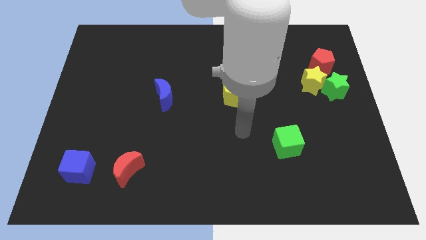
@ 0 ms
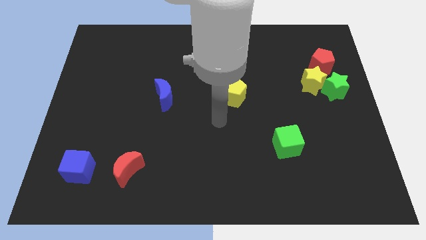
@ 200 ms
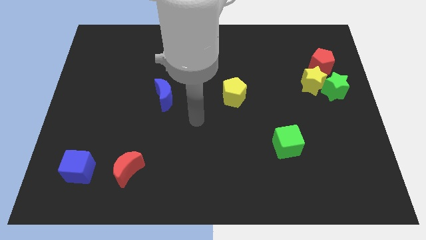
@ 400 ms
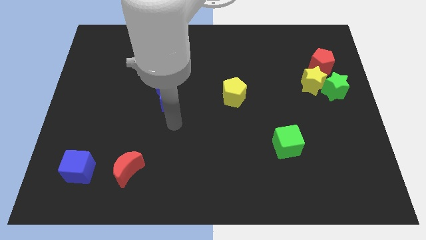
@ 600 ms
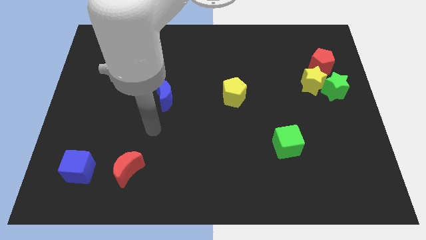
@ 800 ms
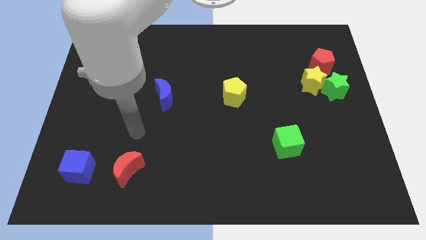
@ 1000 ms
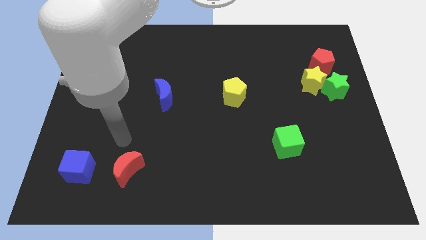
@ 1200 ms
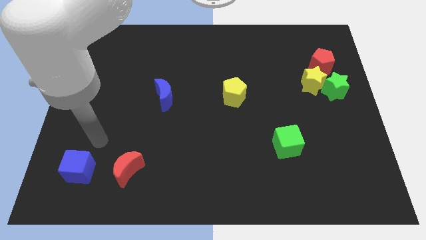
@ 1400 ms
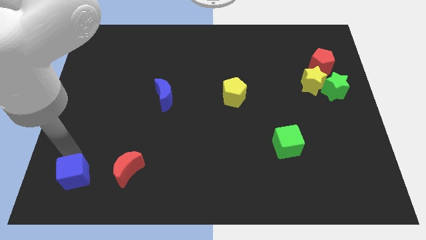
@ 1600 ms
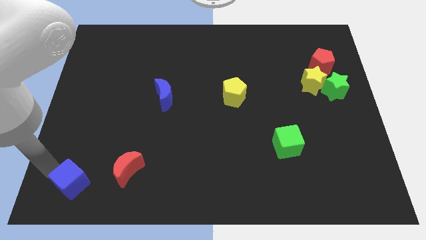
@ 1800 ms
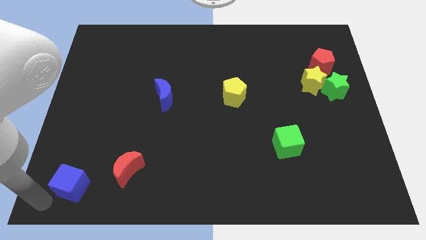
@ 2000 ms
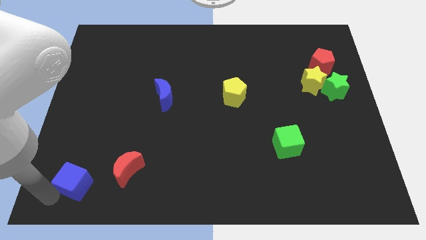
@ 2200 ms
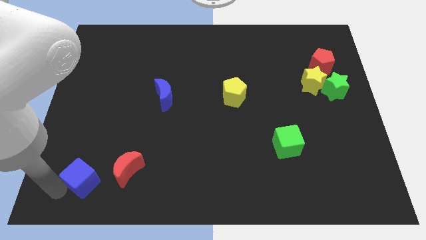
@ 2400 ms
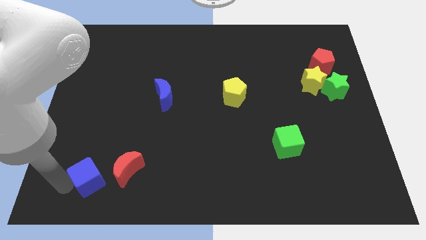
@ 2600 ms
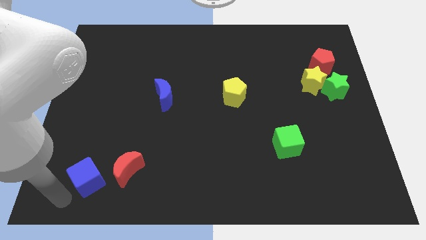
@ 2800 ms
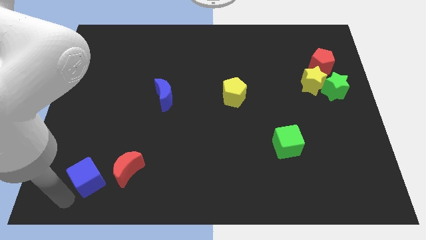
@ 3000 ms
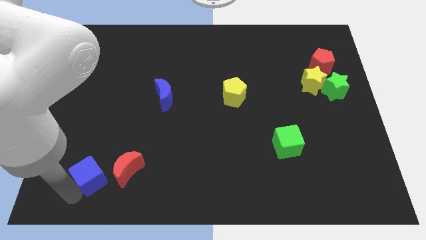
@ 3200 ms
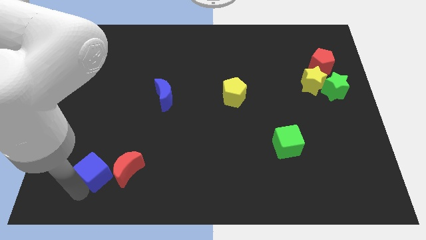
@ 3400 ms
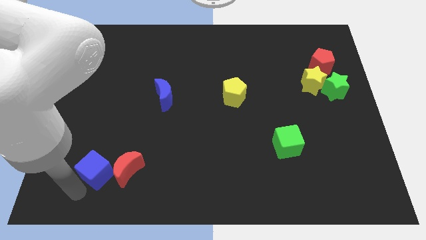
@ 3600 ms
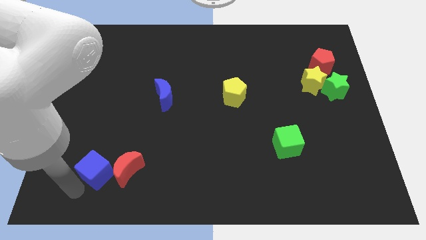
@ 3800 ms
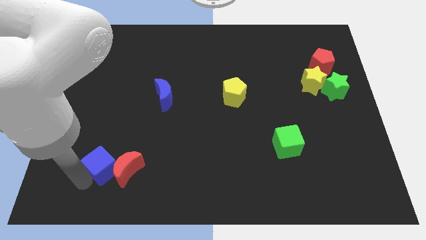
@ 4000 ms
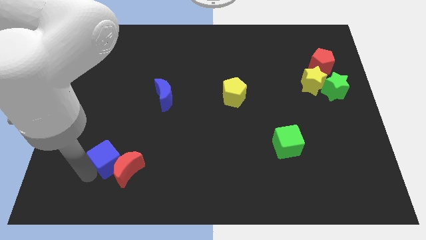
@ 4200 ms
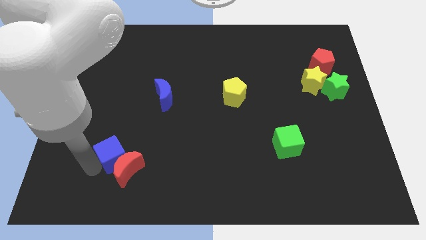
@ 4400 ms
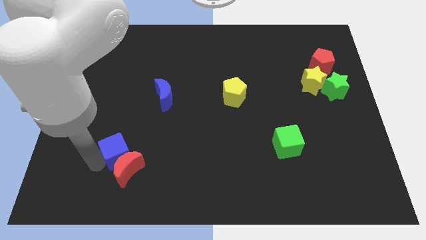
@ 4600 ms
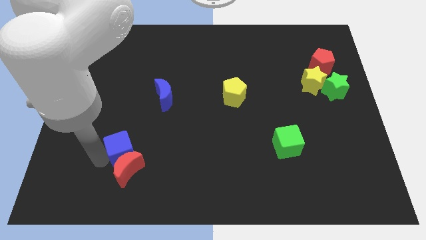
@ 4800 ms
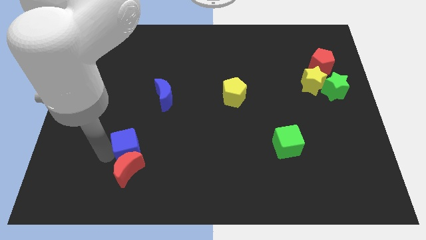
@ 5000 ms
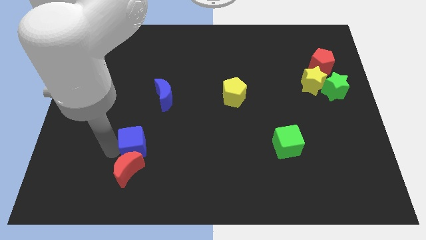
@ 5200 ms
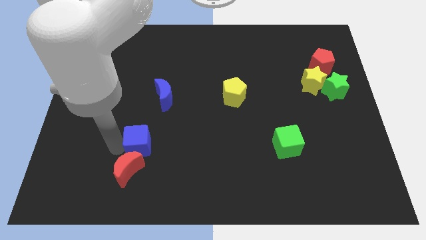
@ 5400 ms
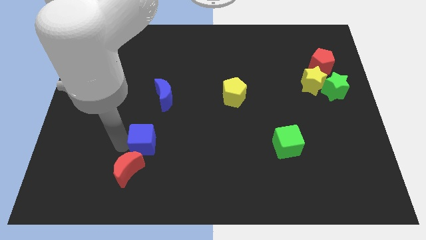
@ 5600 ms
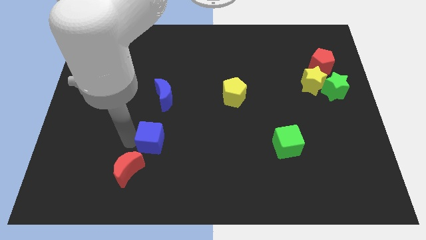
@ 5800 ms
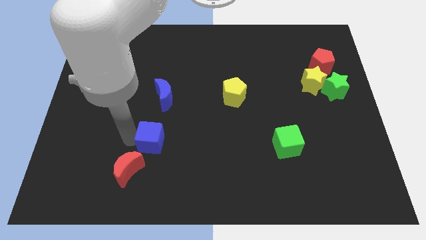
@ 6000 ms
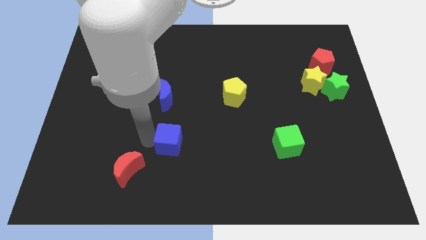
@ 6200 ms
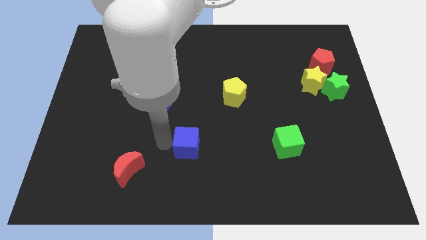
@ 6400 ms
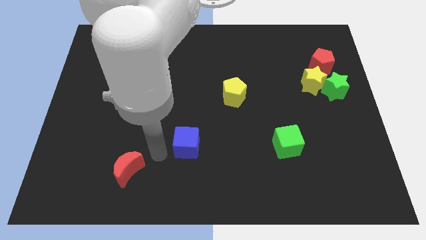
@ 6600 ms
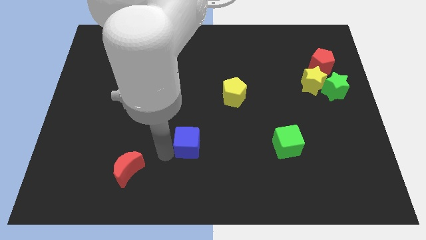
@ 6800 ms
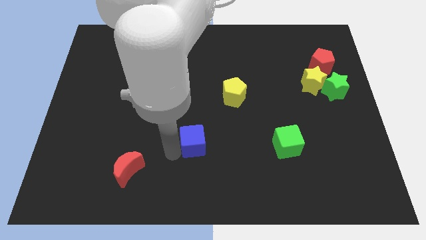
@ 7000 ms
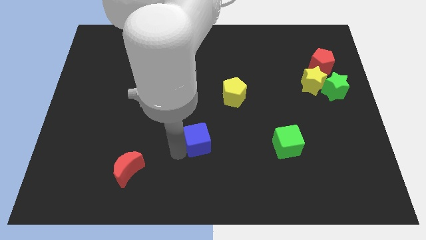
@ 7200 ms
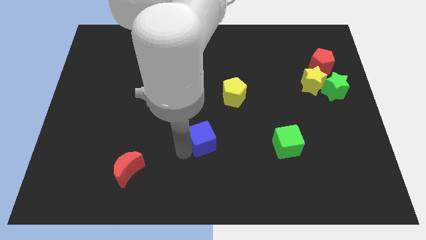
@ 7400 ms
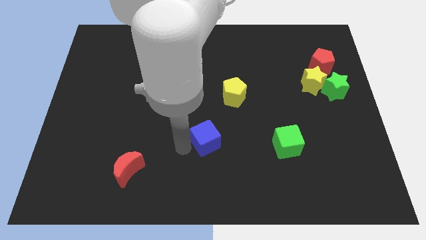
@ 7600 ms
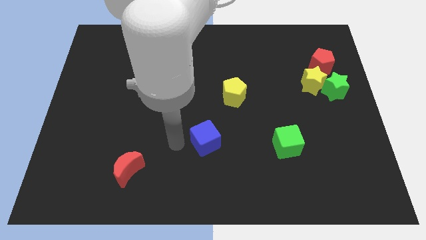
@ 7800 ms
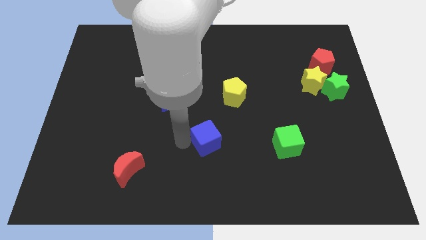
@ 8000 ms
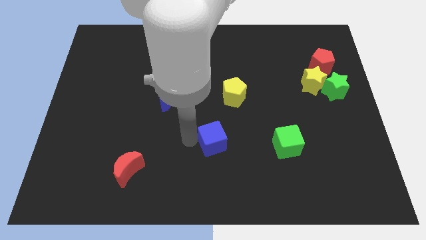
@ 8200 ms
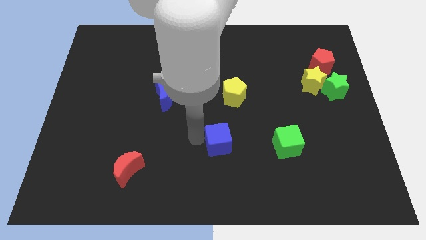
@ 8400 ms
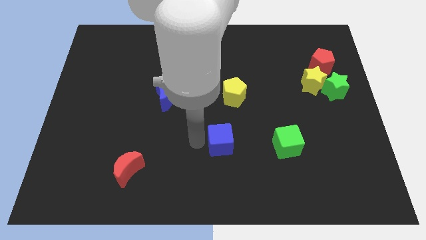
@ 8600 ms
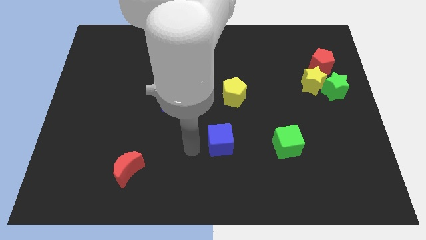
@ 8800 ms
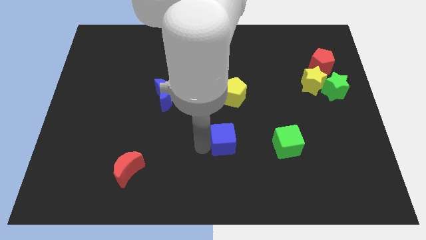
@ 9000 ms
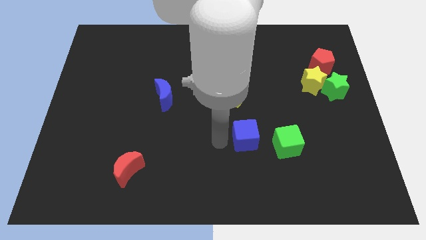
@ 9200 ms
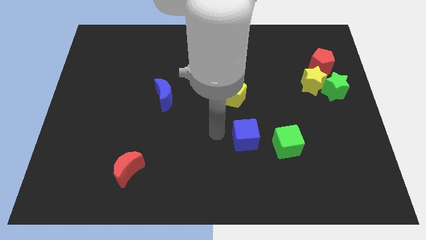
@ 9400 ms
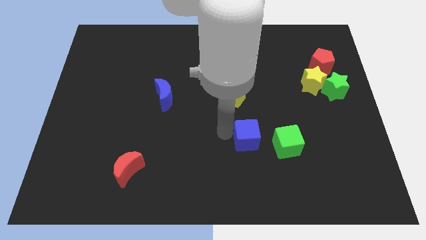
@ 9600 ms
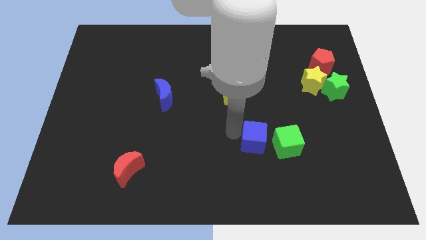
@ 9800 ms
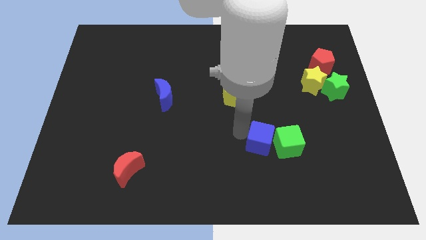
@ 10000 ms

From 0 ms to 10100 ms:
move the blue cube to the green cube

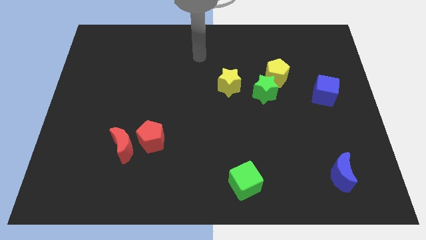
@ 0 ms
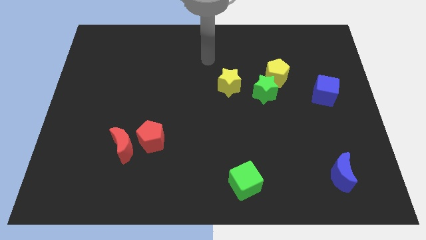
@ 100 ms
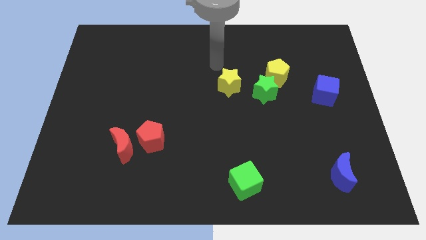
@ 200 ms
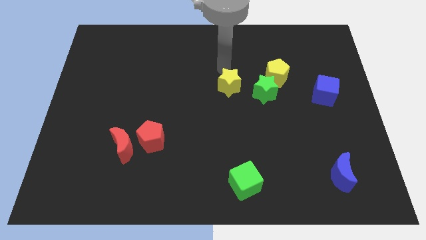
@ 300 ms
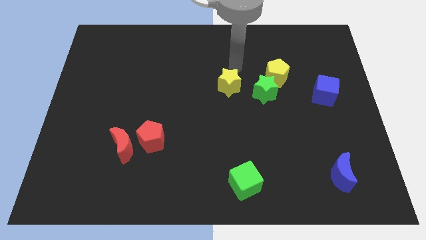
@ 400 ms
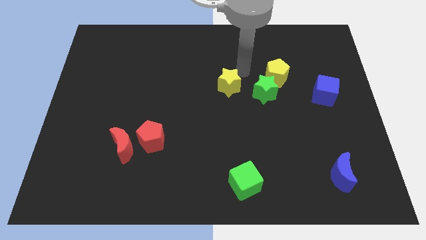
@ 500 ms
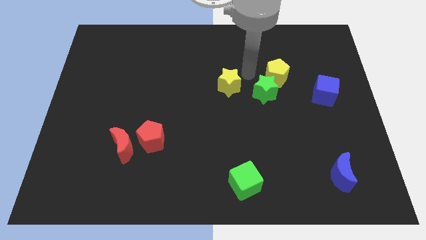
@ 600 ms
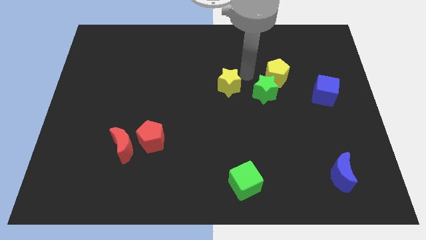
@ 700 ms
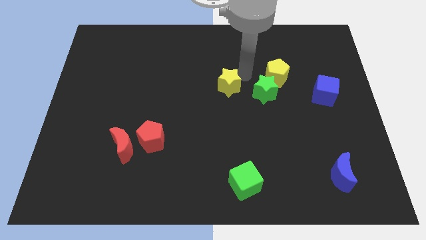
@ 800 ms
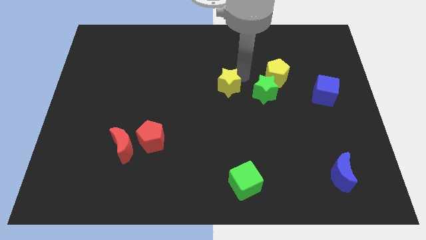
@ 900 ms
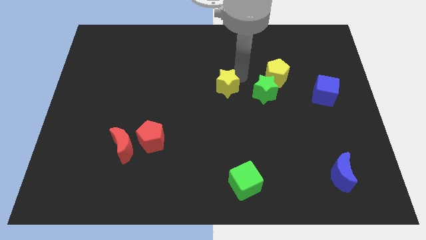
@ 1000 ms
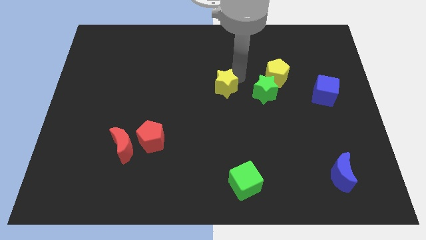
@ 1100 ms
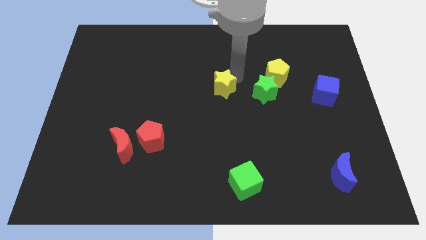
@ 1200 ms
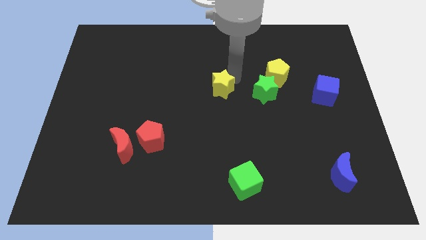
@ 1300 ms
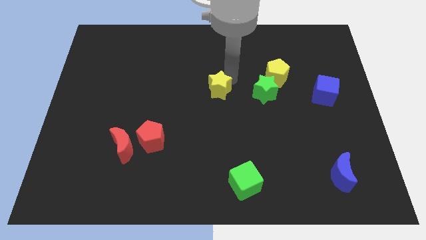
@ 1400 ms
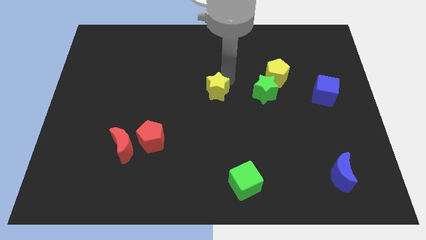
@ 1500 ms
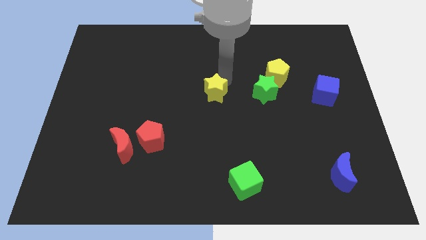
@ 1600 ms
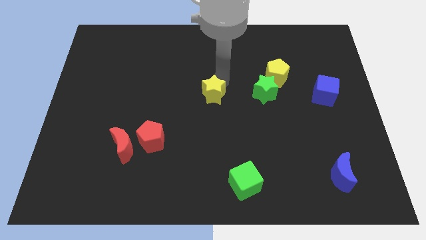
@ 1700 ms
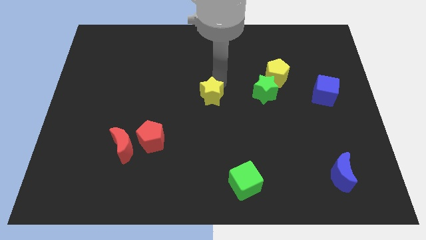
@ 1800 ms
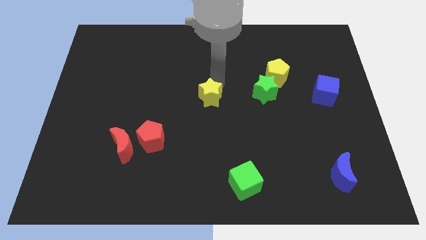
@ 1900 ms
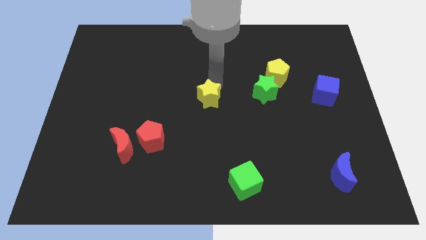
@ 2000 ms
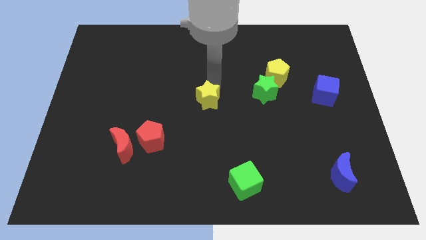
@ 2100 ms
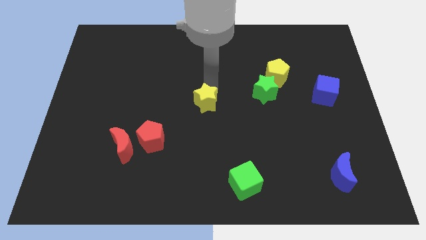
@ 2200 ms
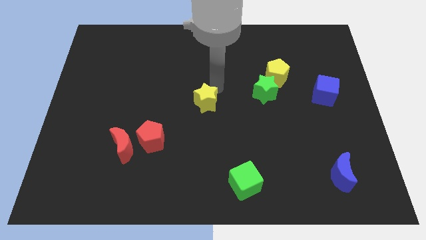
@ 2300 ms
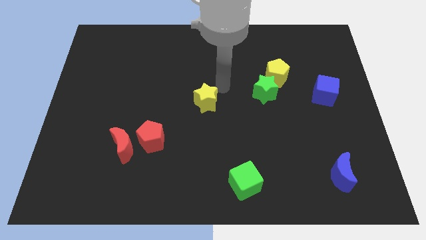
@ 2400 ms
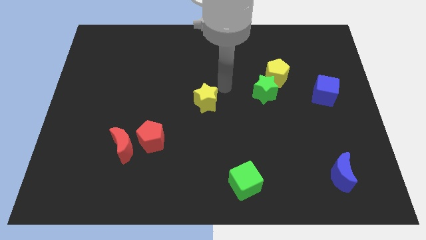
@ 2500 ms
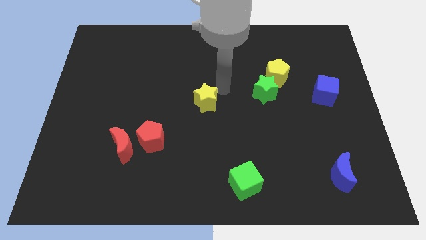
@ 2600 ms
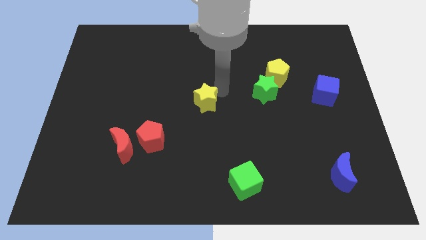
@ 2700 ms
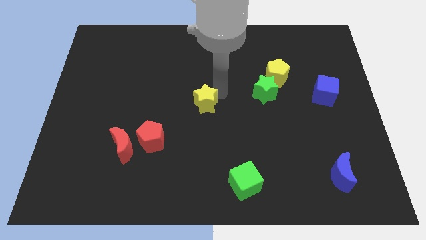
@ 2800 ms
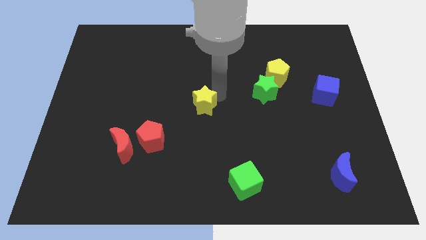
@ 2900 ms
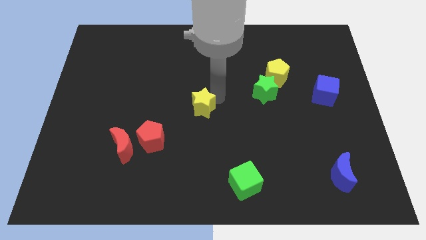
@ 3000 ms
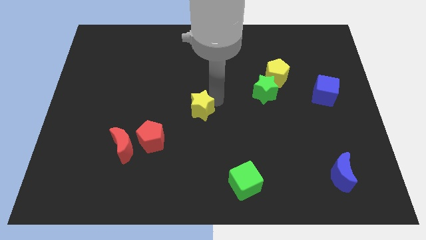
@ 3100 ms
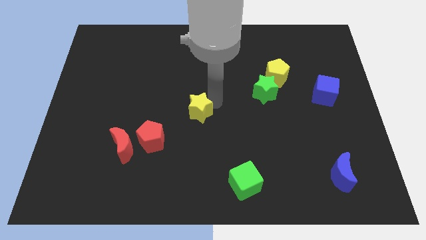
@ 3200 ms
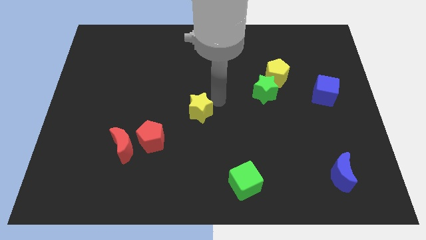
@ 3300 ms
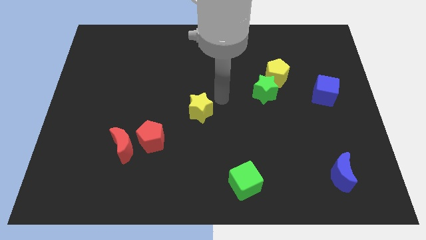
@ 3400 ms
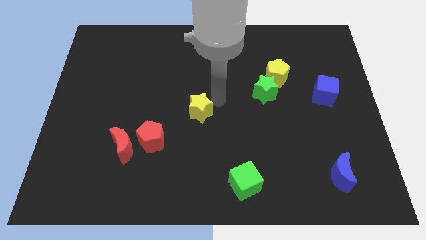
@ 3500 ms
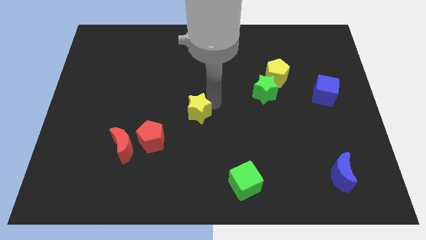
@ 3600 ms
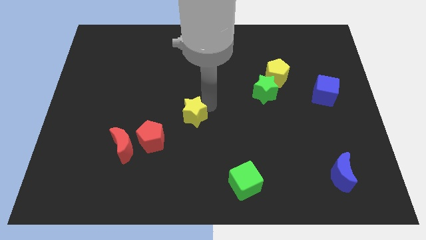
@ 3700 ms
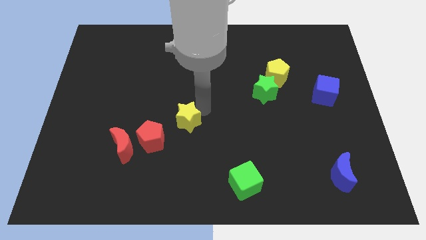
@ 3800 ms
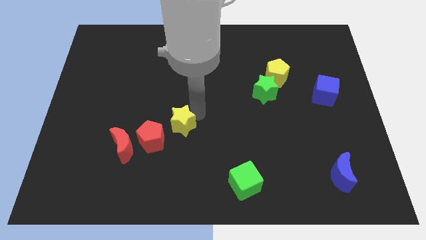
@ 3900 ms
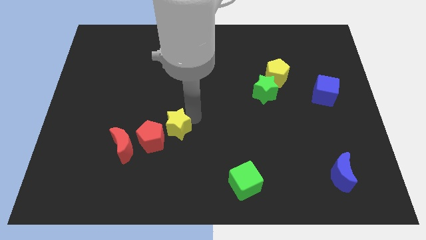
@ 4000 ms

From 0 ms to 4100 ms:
slide the yellow star to the red pentagon
